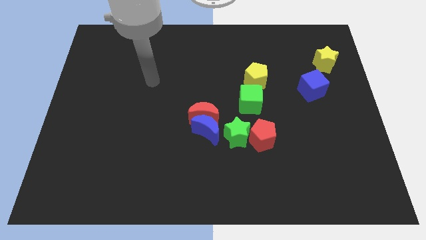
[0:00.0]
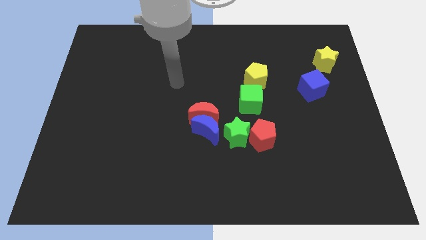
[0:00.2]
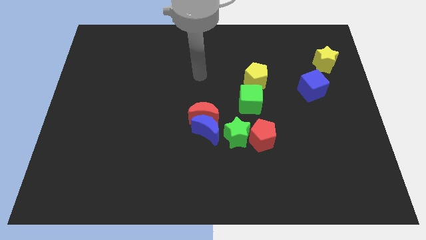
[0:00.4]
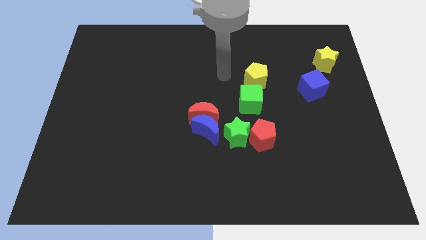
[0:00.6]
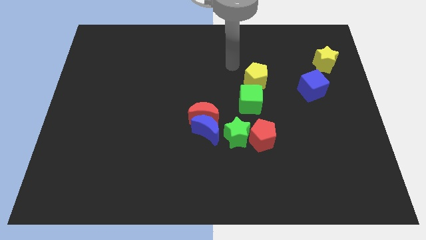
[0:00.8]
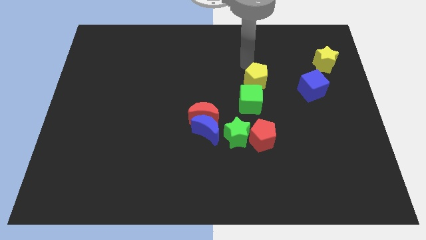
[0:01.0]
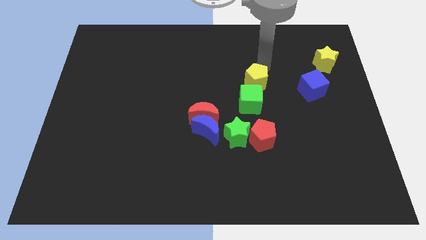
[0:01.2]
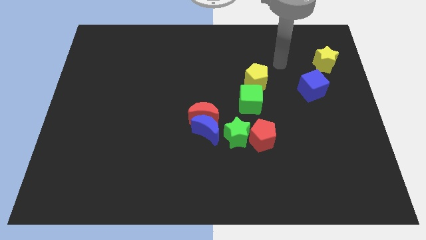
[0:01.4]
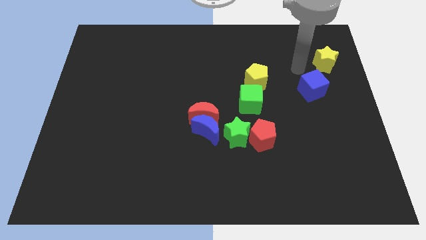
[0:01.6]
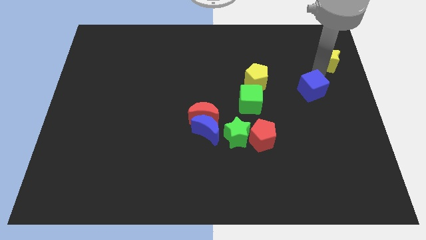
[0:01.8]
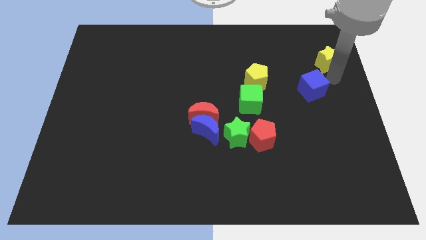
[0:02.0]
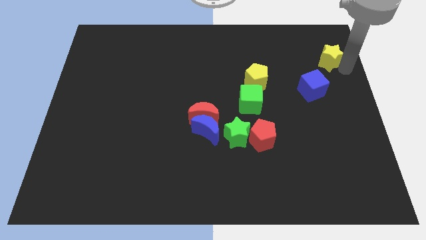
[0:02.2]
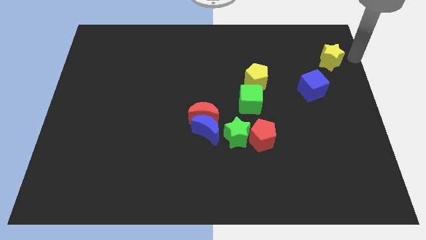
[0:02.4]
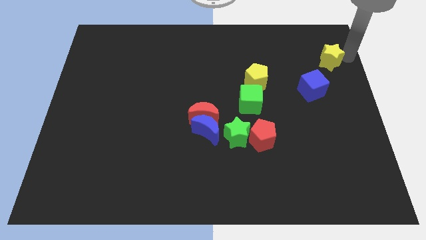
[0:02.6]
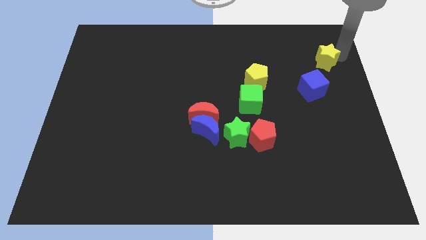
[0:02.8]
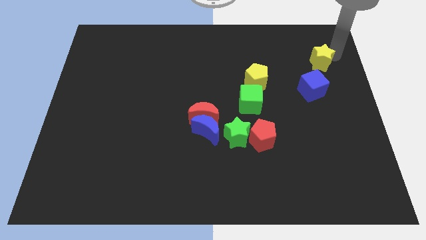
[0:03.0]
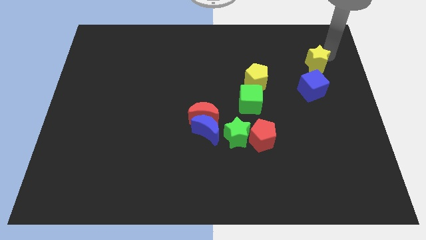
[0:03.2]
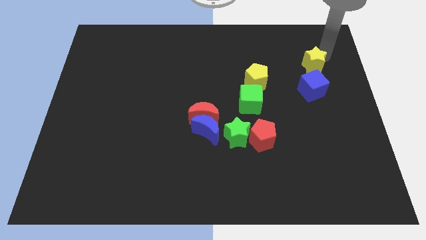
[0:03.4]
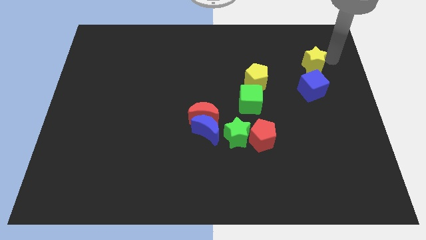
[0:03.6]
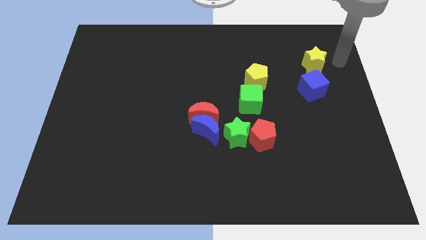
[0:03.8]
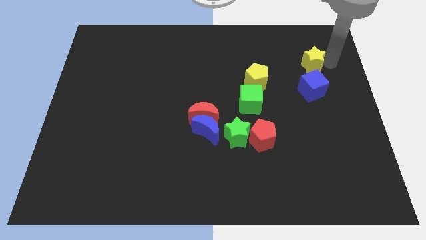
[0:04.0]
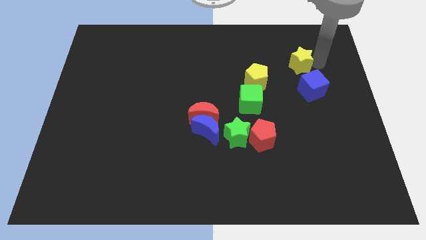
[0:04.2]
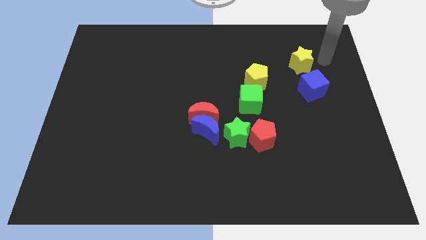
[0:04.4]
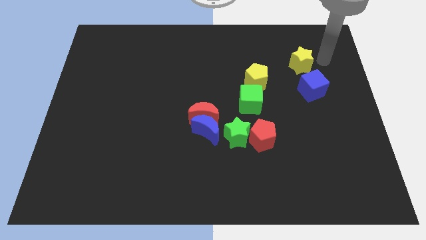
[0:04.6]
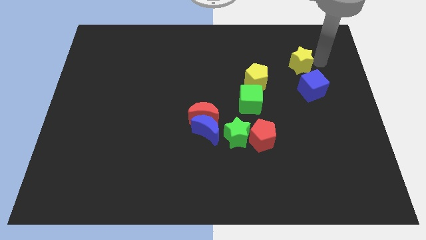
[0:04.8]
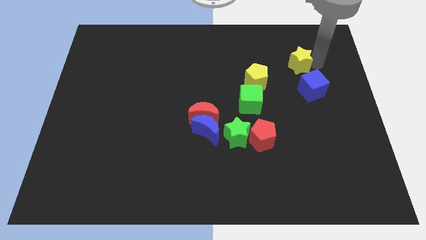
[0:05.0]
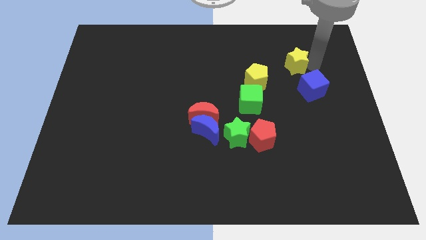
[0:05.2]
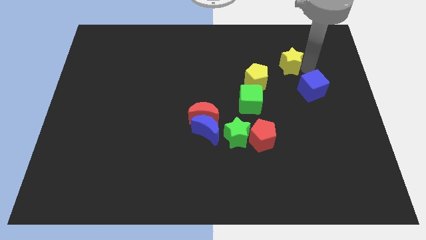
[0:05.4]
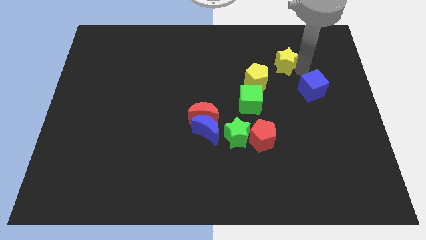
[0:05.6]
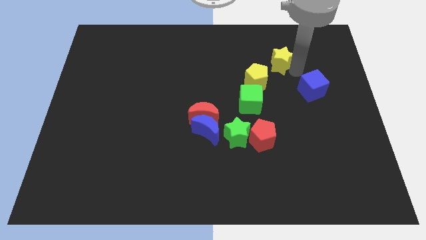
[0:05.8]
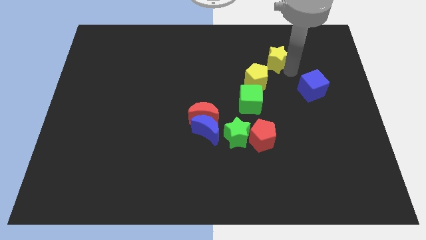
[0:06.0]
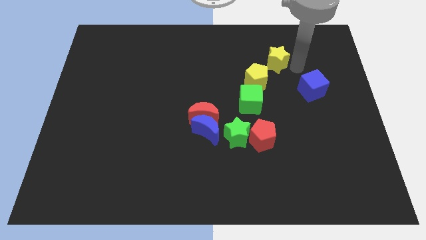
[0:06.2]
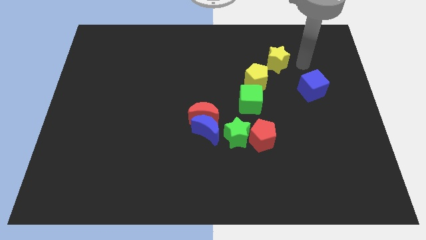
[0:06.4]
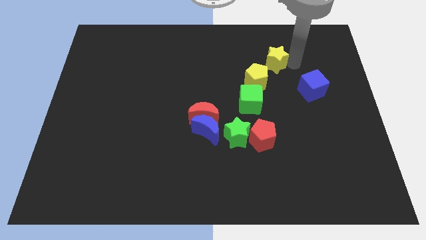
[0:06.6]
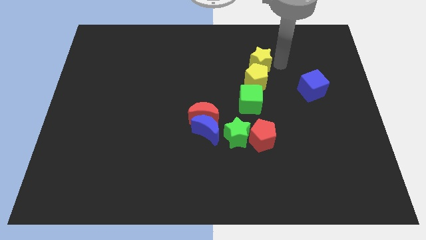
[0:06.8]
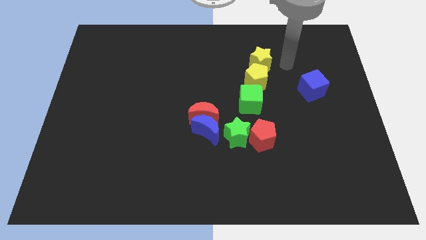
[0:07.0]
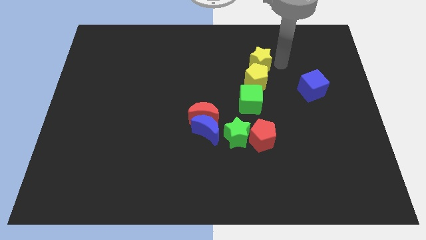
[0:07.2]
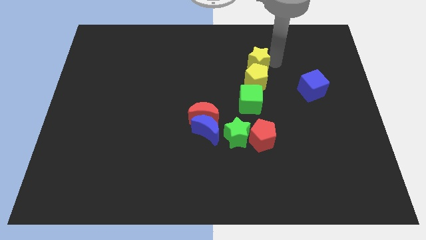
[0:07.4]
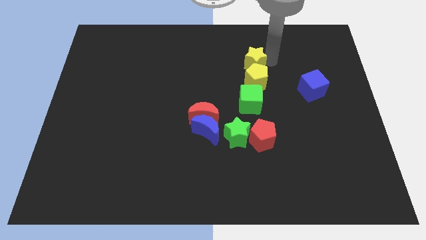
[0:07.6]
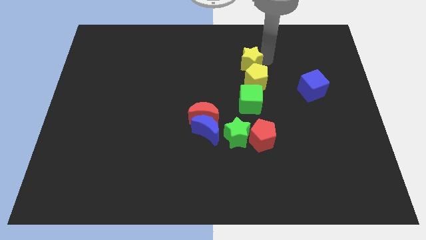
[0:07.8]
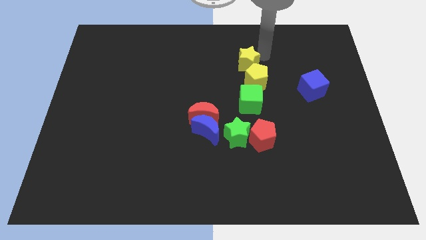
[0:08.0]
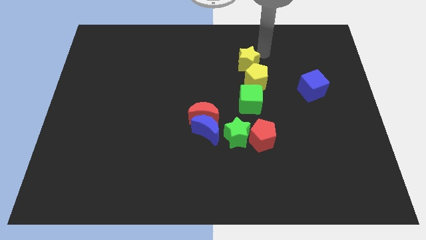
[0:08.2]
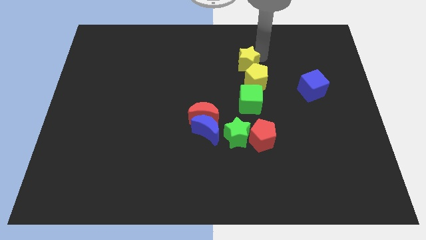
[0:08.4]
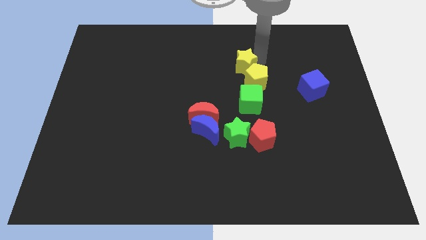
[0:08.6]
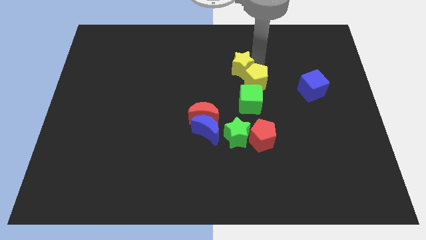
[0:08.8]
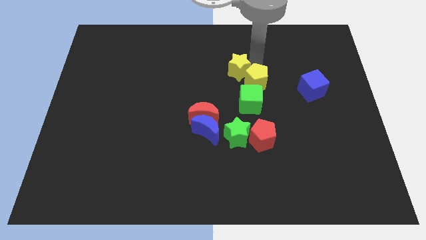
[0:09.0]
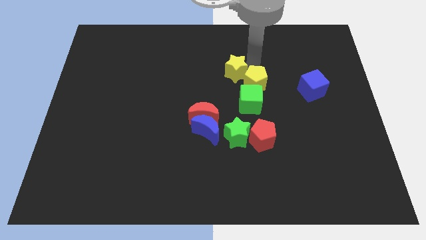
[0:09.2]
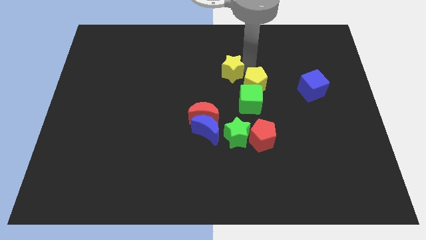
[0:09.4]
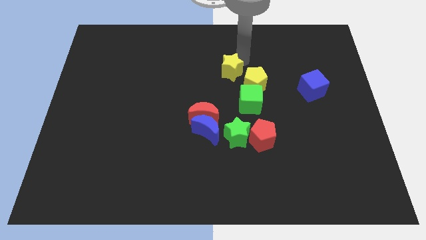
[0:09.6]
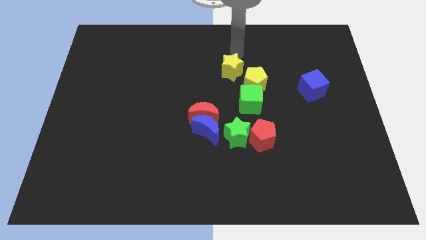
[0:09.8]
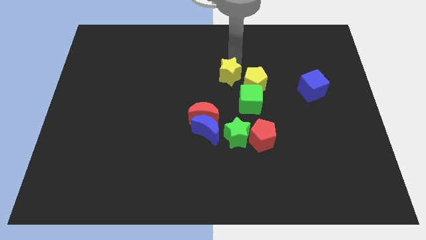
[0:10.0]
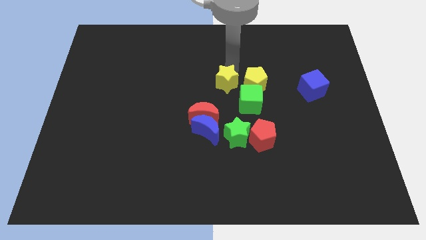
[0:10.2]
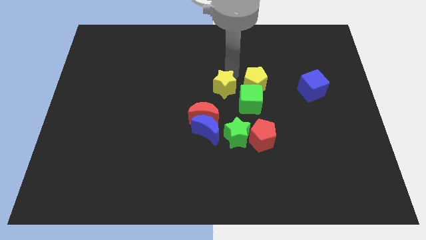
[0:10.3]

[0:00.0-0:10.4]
move the yellow star to the top of the blue moon

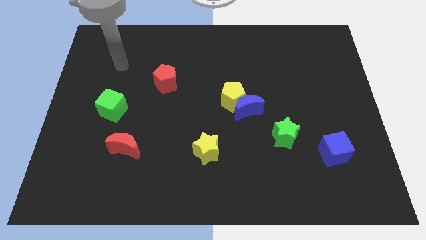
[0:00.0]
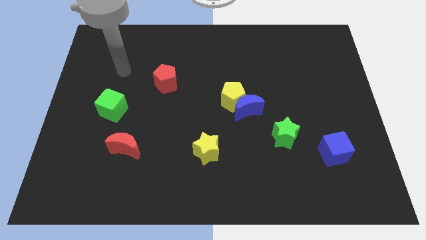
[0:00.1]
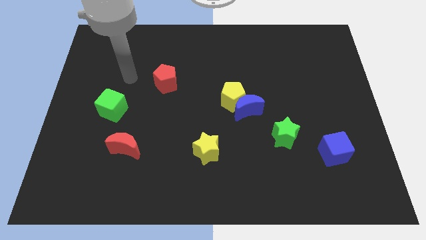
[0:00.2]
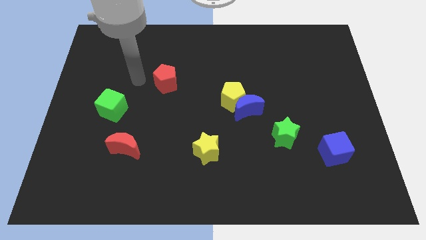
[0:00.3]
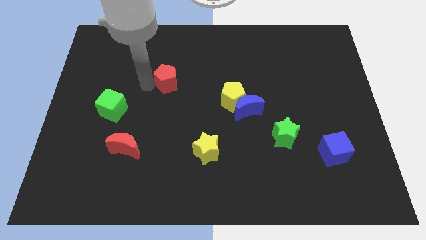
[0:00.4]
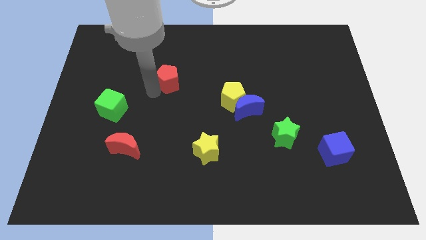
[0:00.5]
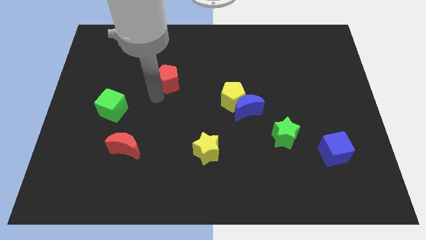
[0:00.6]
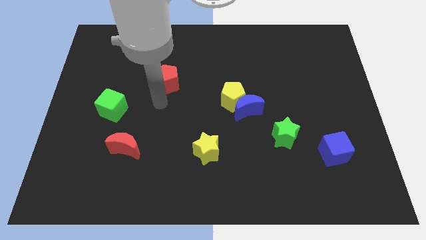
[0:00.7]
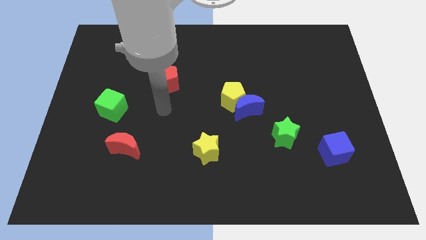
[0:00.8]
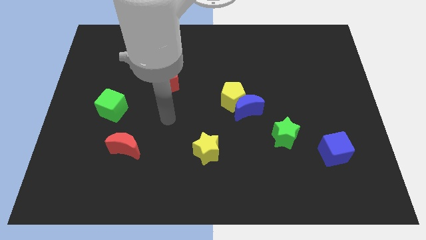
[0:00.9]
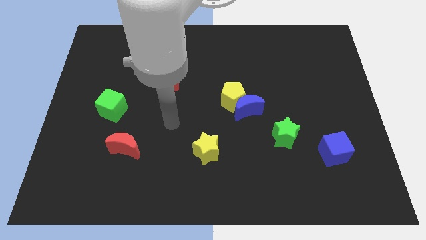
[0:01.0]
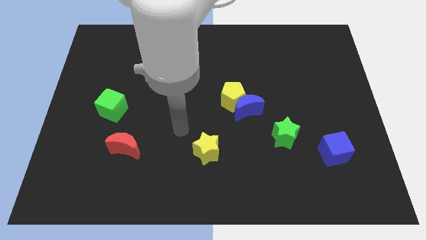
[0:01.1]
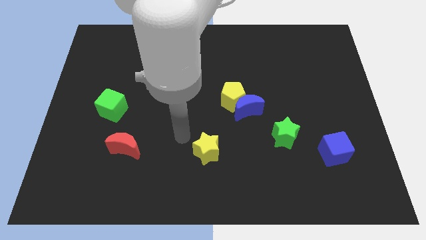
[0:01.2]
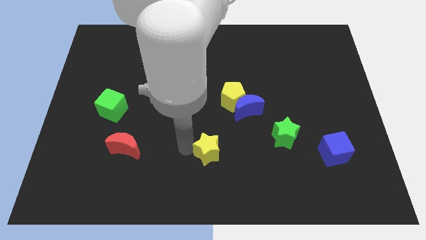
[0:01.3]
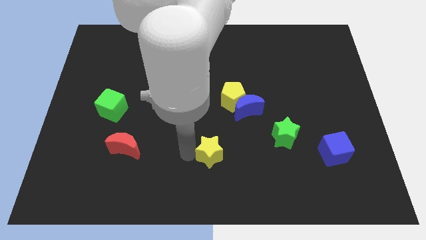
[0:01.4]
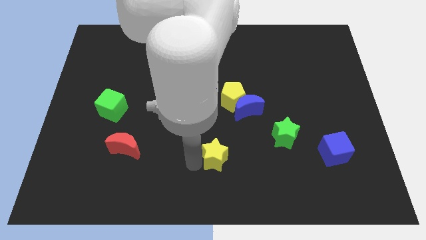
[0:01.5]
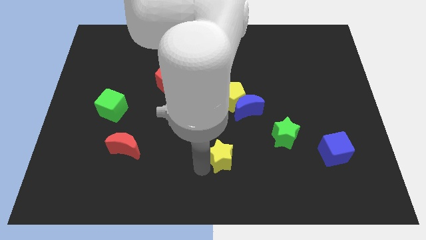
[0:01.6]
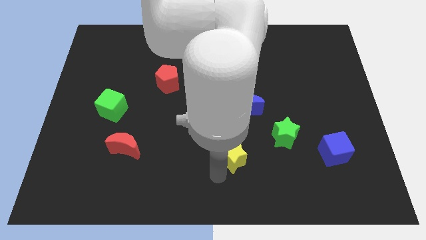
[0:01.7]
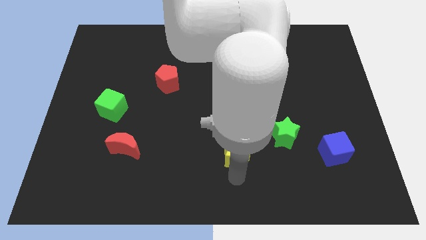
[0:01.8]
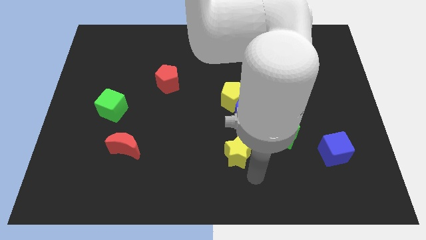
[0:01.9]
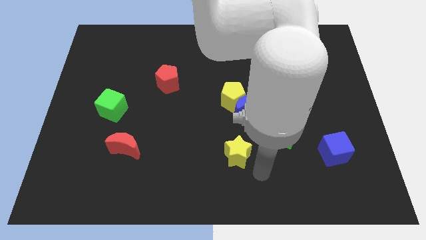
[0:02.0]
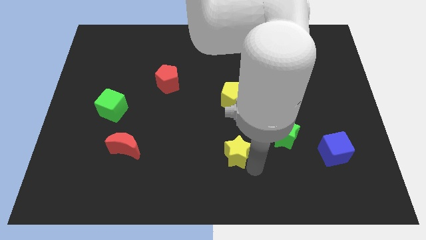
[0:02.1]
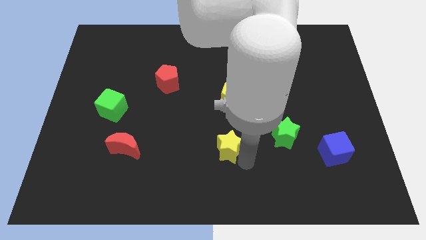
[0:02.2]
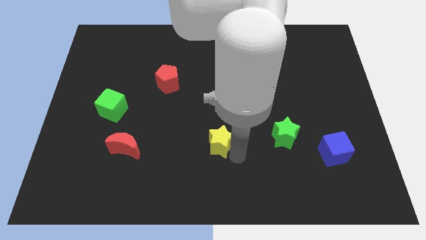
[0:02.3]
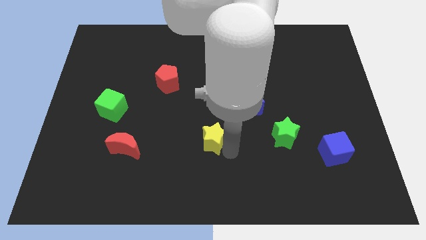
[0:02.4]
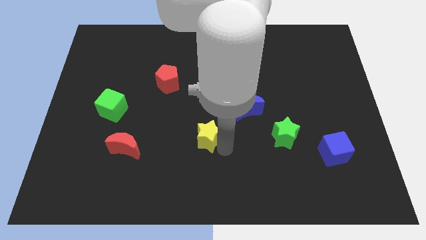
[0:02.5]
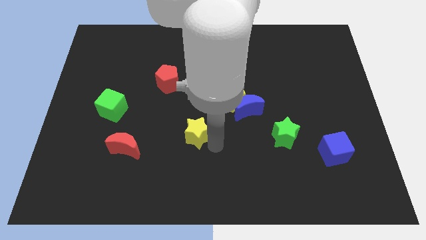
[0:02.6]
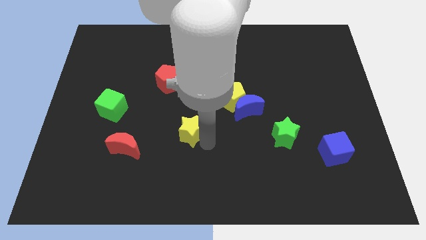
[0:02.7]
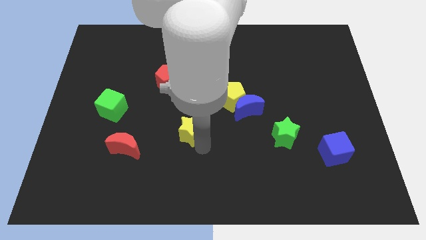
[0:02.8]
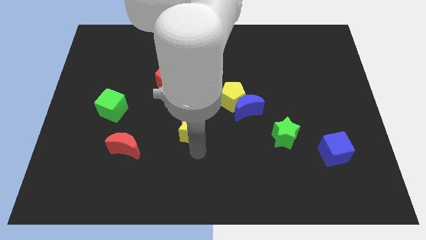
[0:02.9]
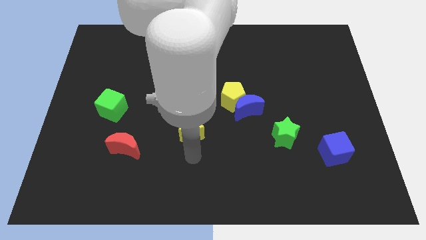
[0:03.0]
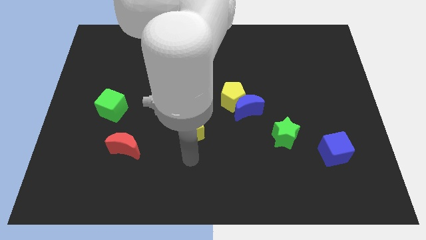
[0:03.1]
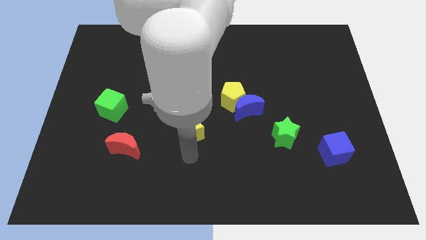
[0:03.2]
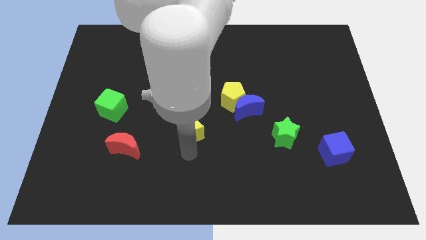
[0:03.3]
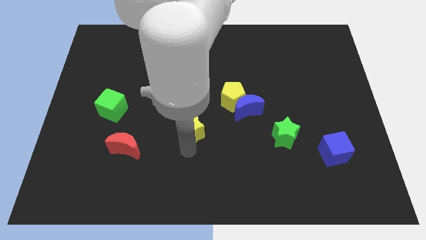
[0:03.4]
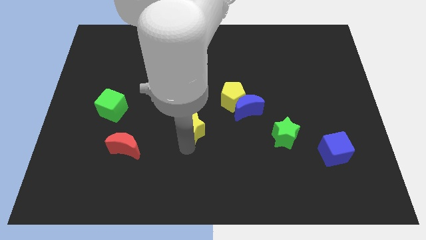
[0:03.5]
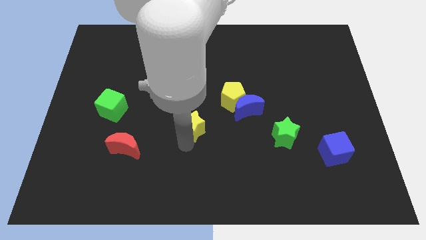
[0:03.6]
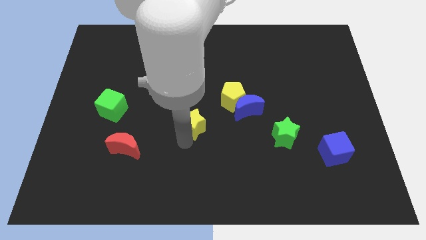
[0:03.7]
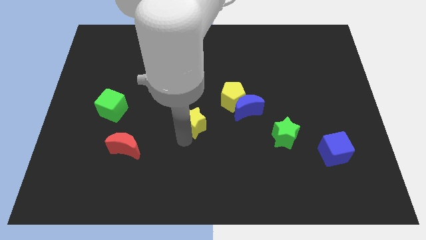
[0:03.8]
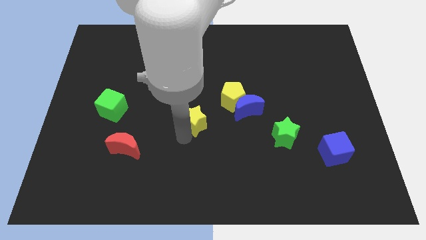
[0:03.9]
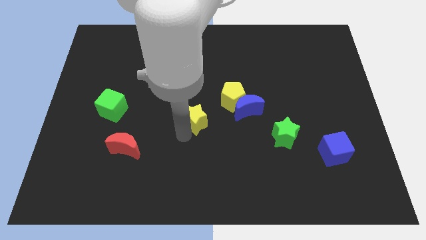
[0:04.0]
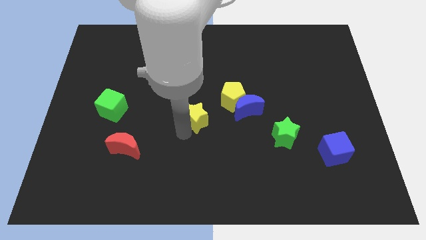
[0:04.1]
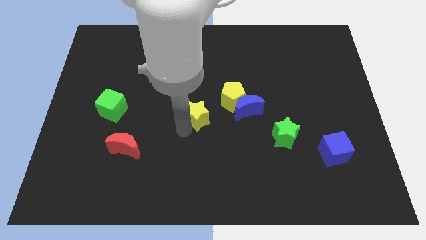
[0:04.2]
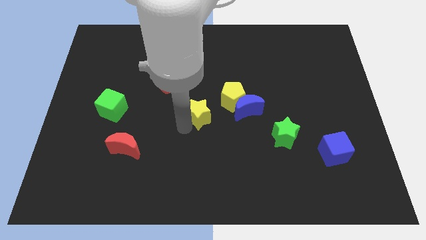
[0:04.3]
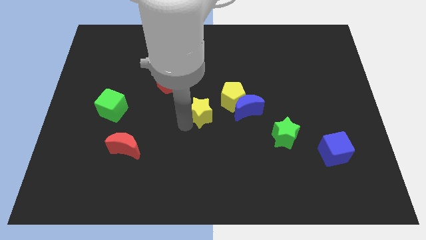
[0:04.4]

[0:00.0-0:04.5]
put the yellow star diagonally down and to the right of the red pentagon
